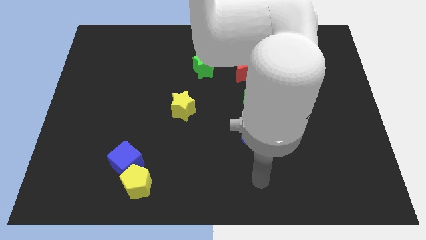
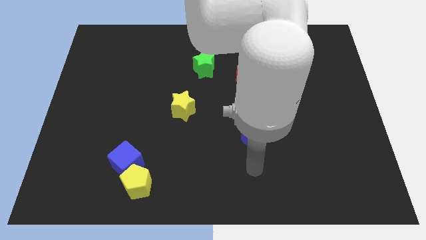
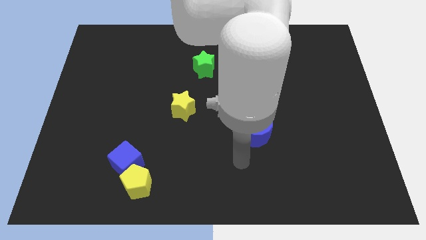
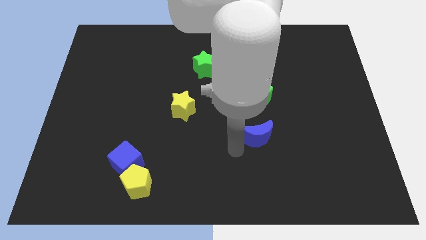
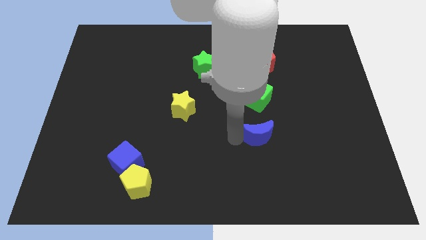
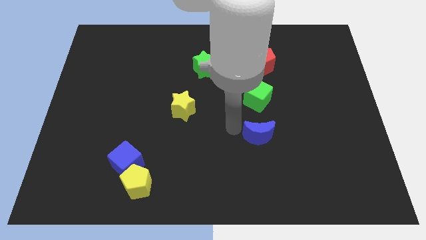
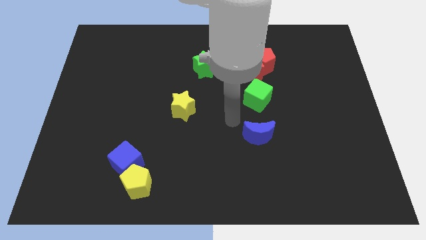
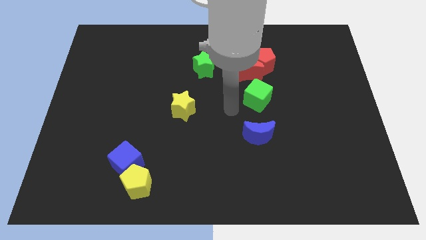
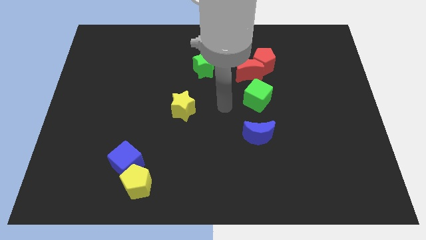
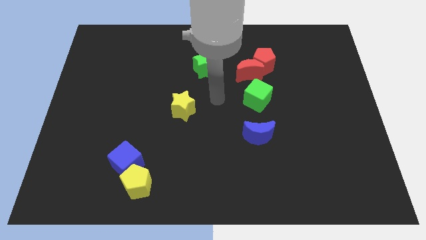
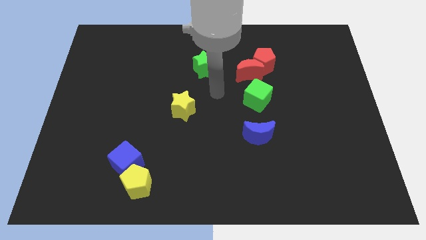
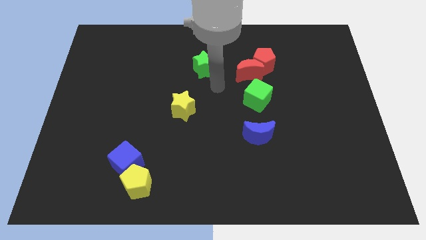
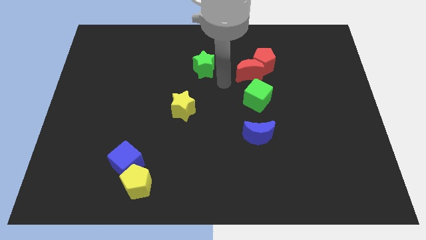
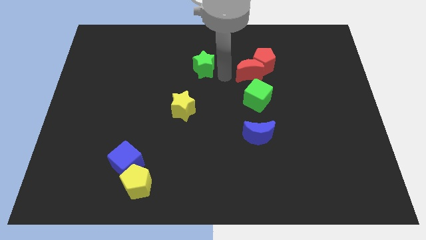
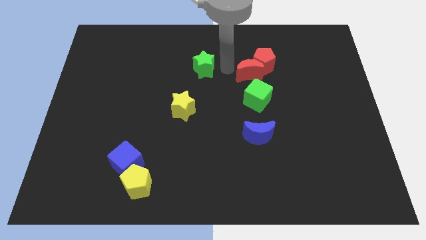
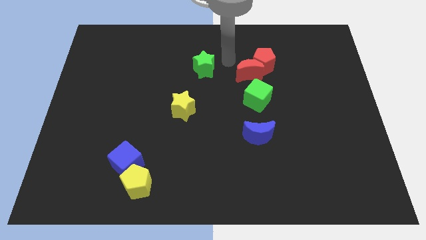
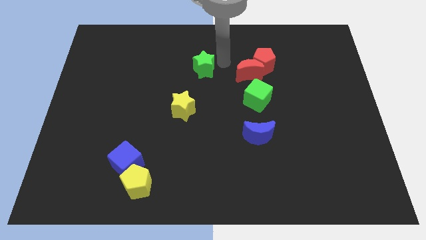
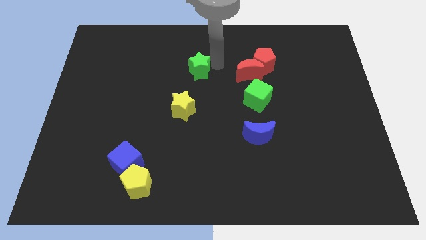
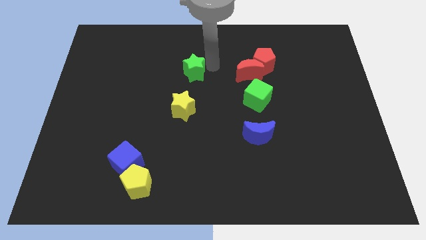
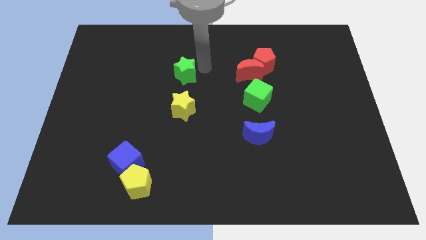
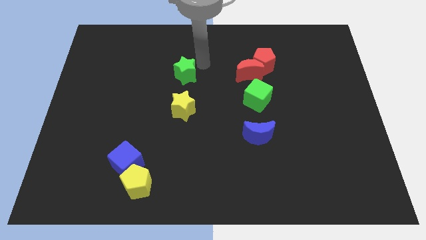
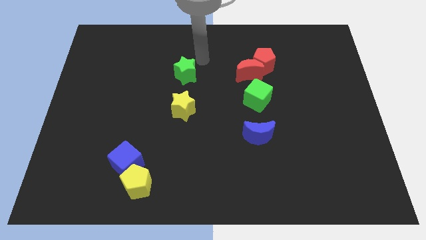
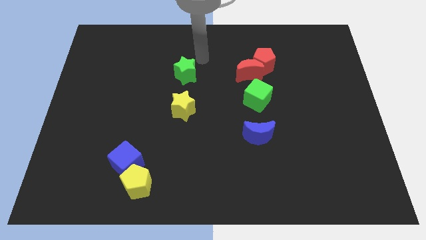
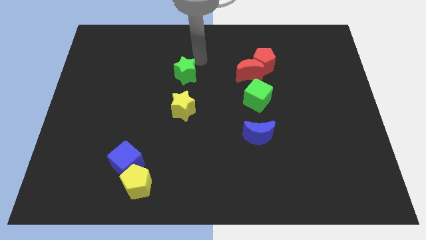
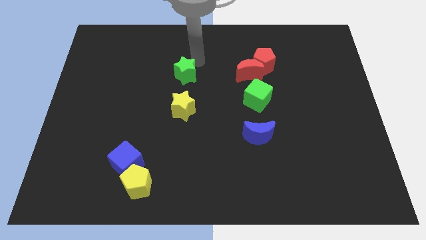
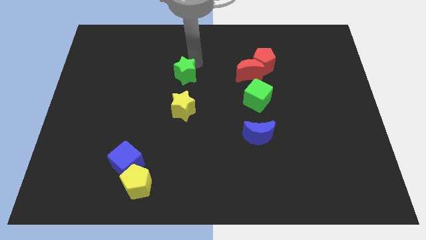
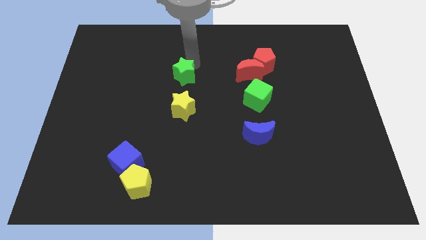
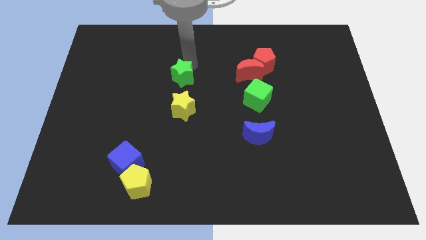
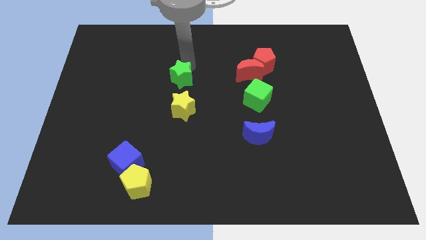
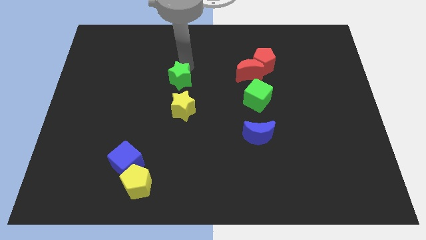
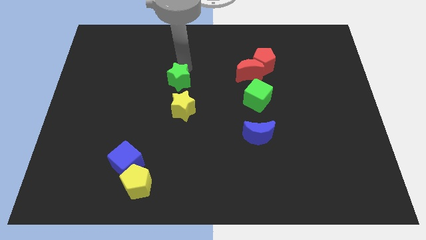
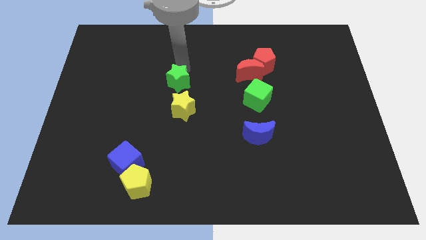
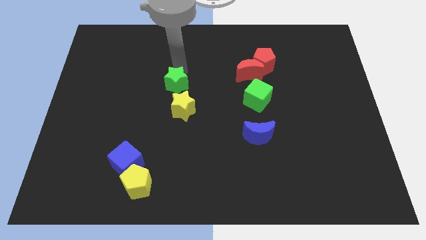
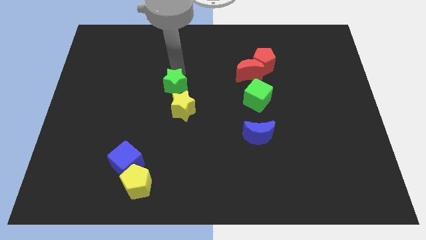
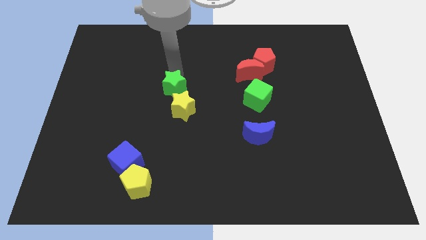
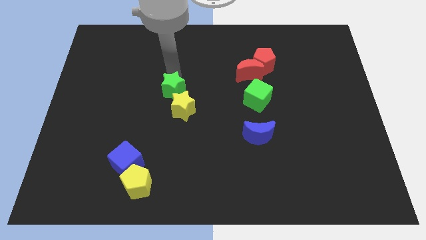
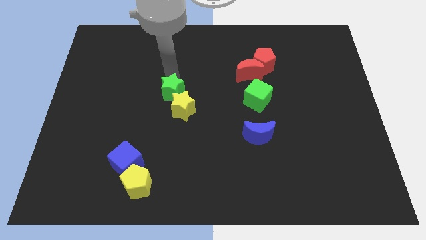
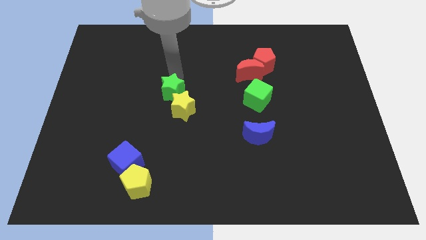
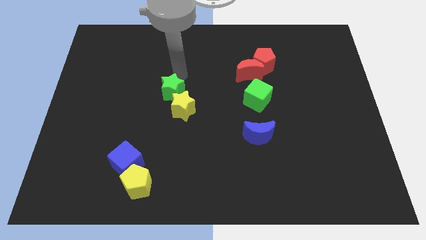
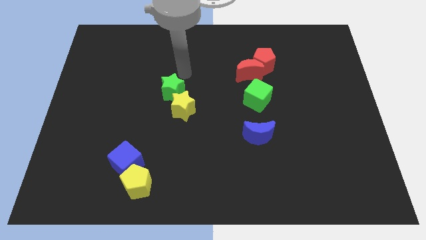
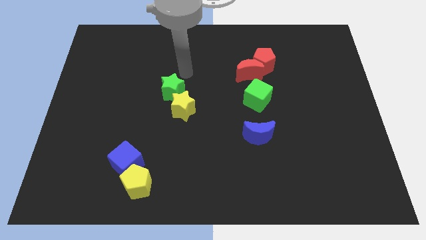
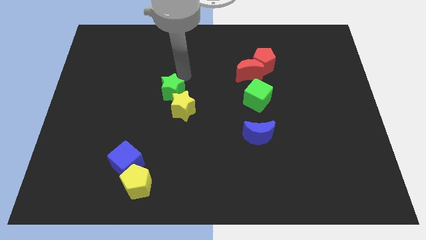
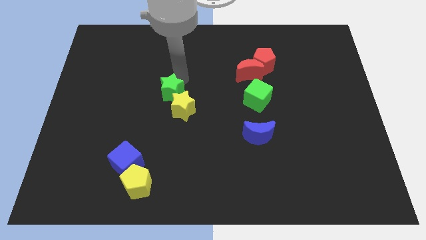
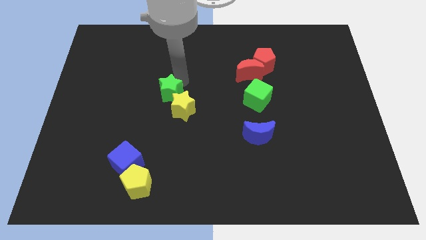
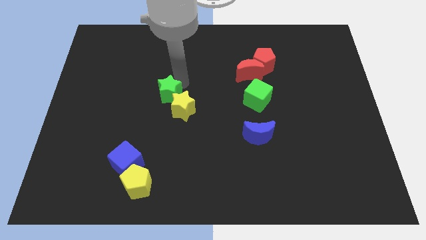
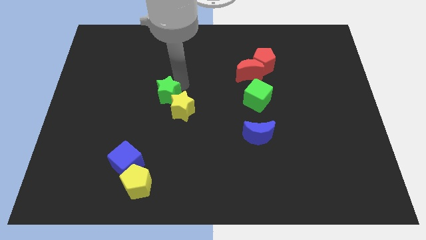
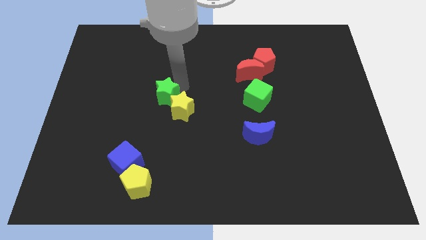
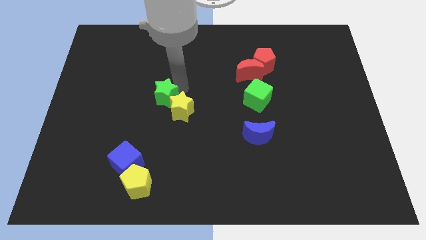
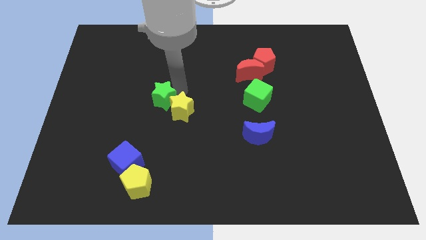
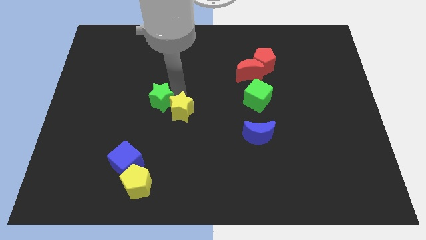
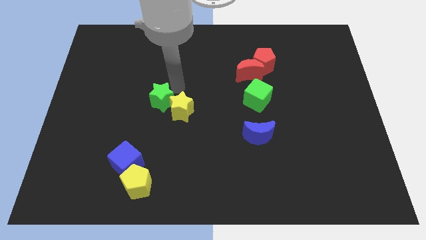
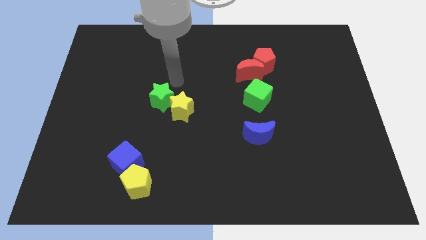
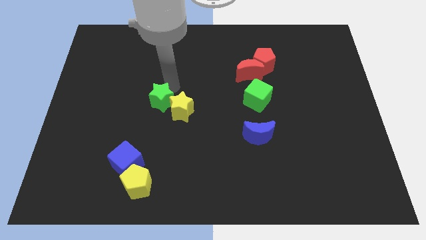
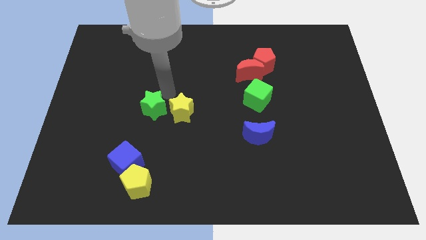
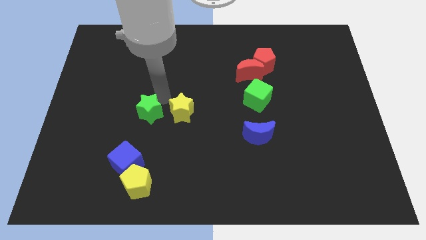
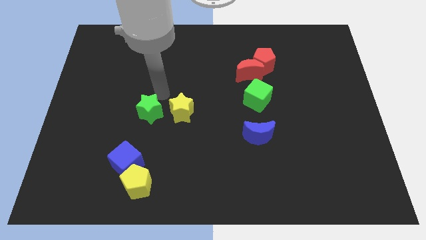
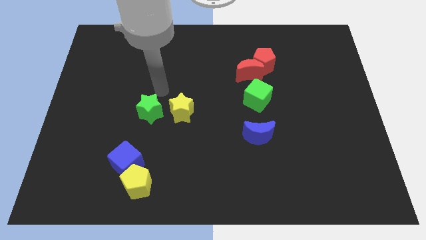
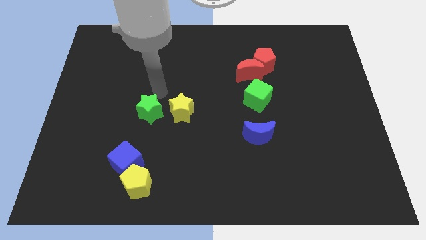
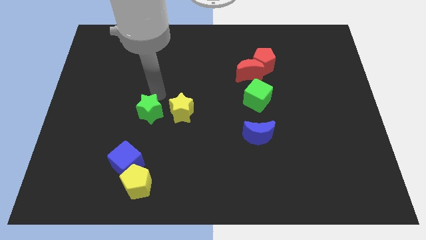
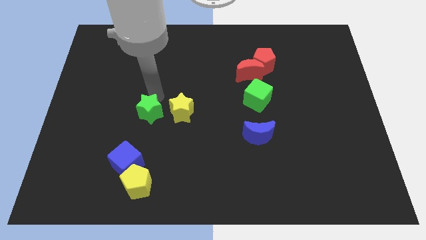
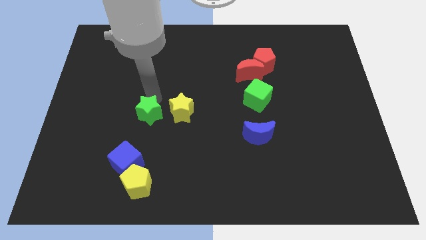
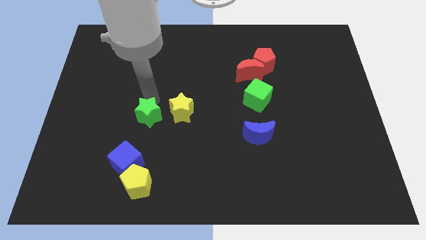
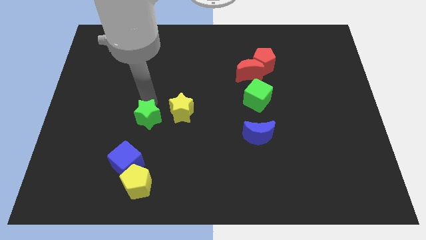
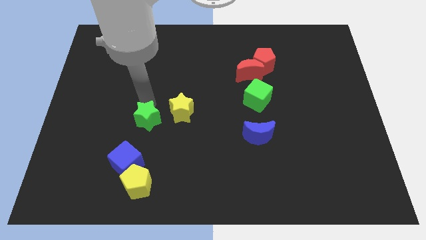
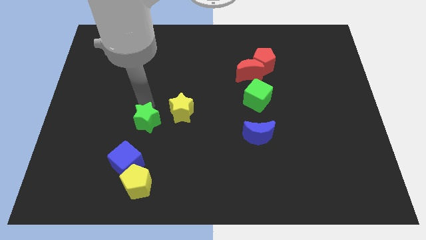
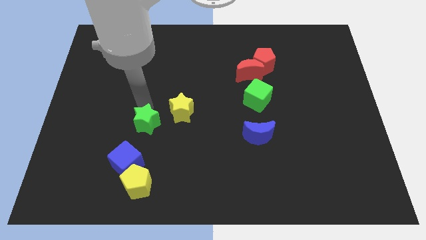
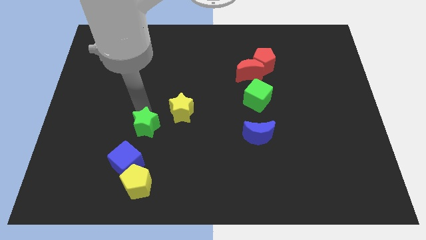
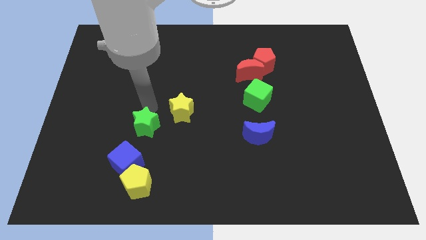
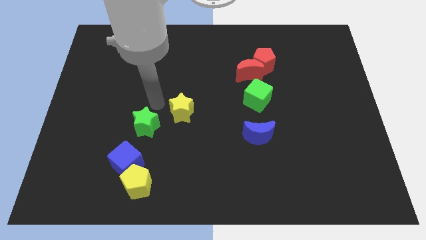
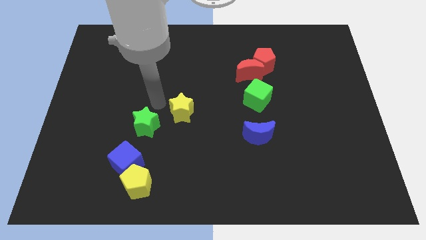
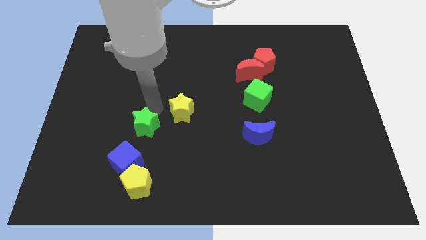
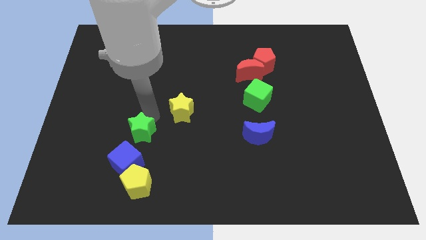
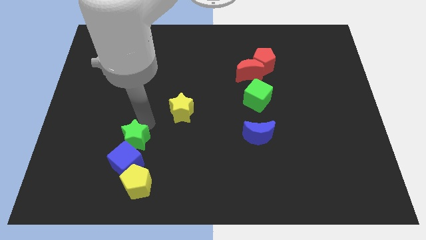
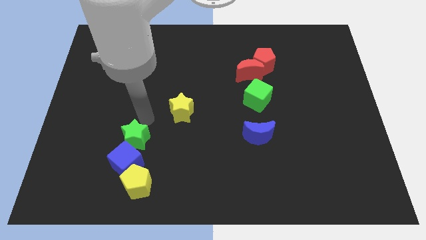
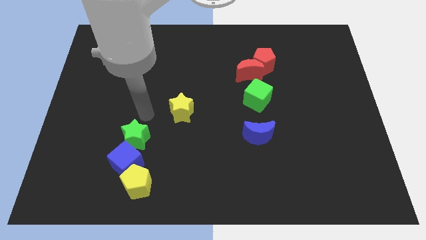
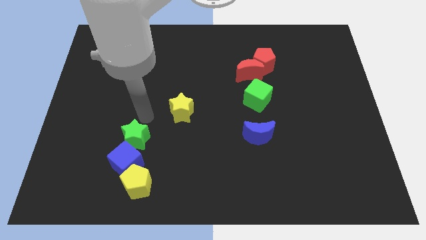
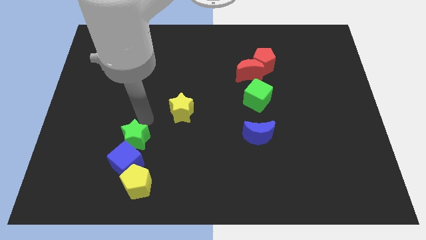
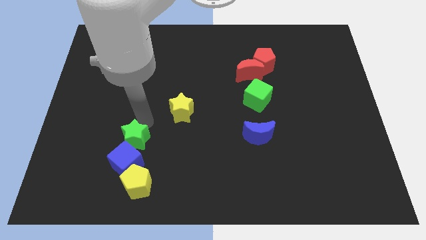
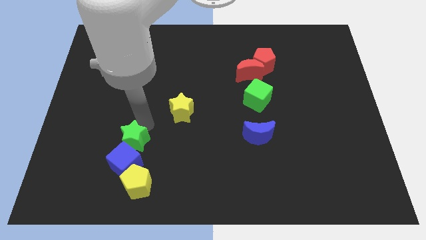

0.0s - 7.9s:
put the green star to the blue cube
